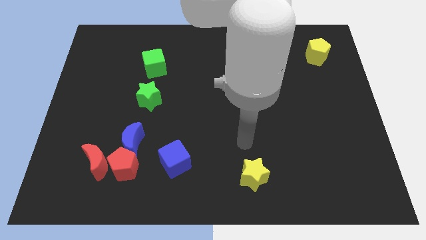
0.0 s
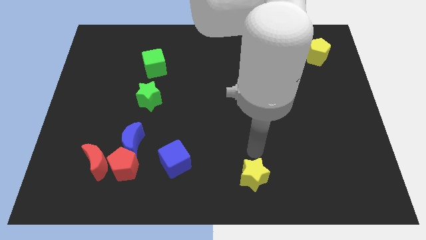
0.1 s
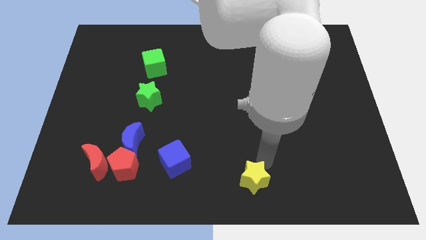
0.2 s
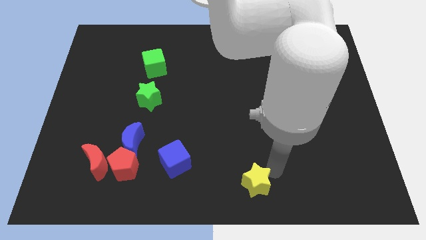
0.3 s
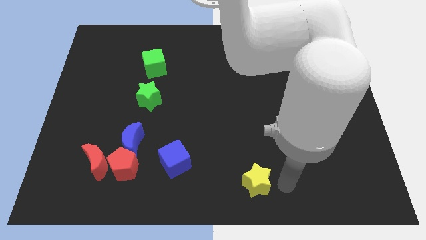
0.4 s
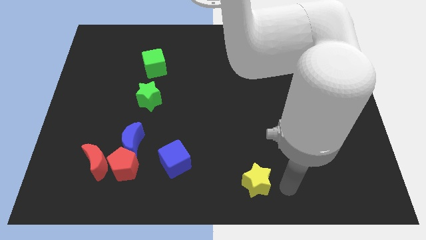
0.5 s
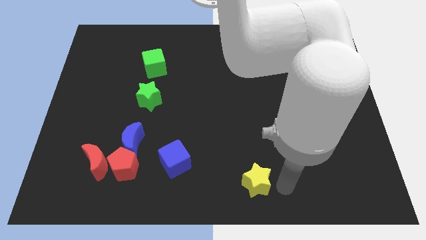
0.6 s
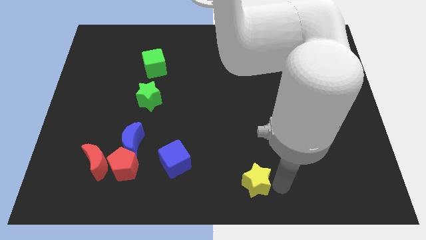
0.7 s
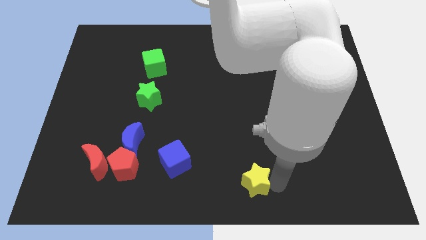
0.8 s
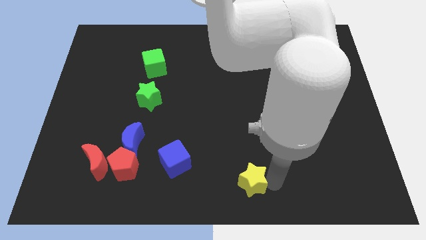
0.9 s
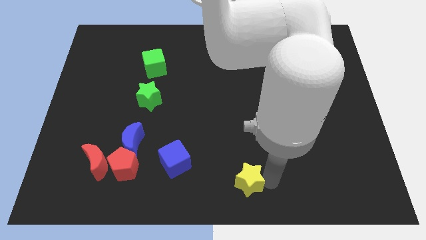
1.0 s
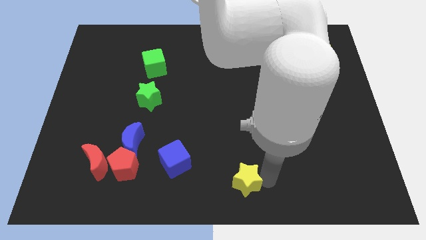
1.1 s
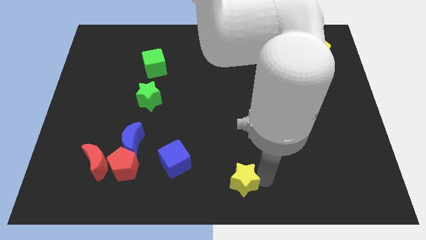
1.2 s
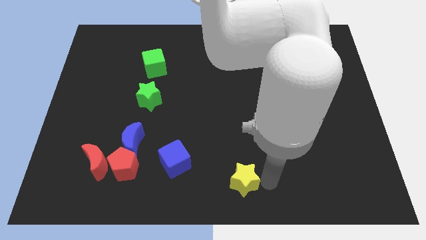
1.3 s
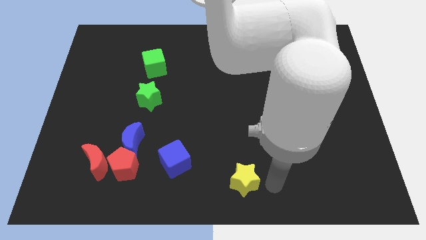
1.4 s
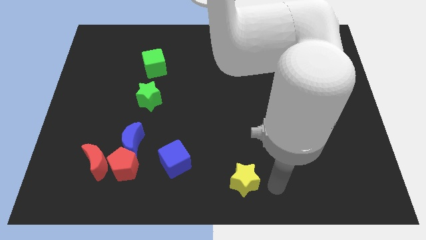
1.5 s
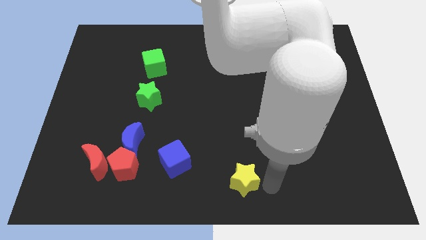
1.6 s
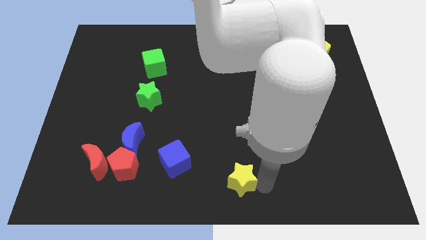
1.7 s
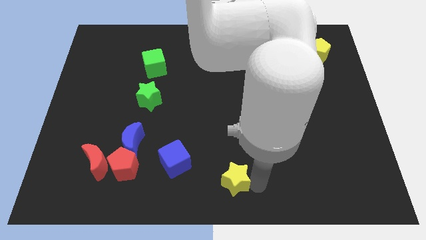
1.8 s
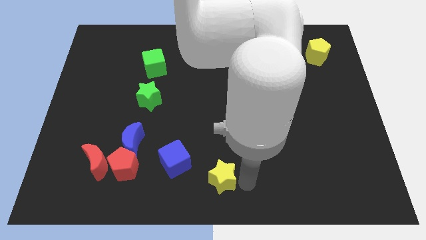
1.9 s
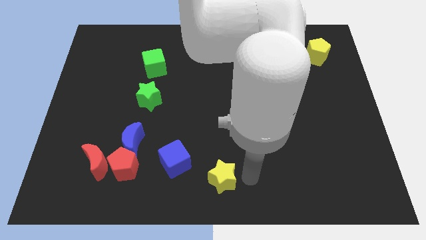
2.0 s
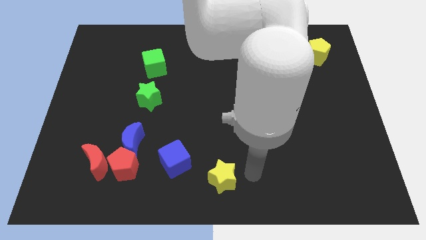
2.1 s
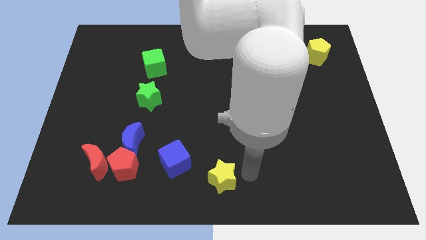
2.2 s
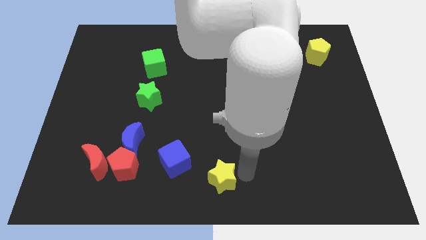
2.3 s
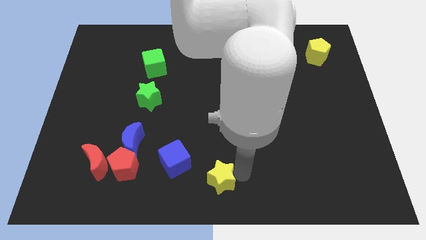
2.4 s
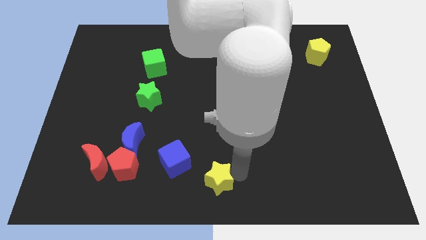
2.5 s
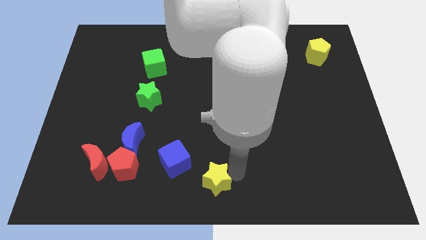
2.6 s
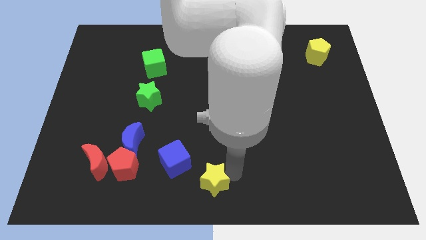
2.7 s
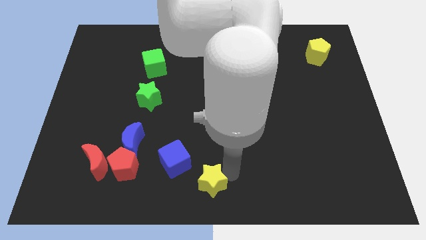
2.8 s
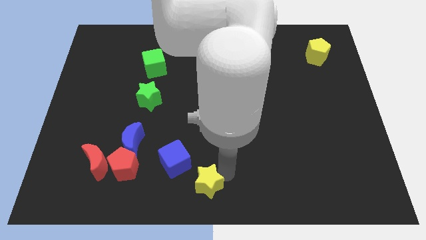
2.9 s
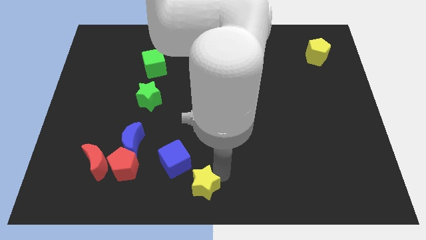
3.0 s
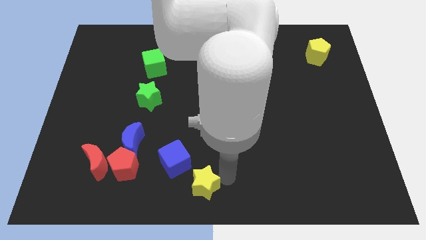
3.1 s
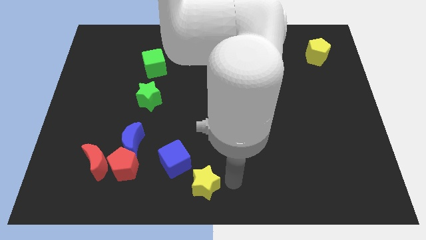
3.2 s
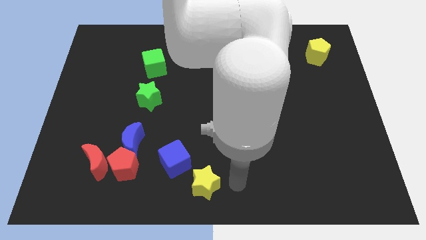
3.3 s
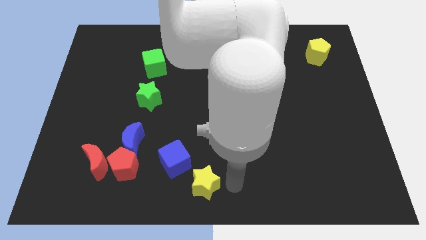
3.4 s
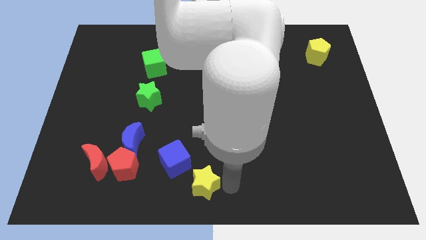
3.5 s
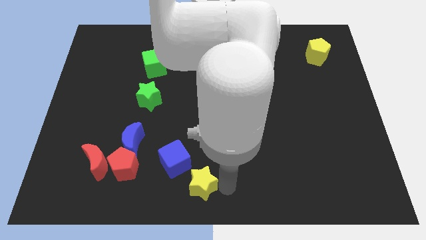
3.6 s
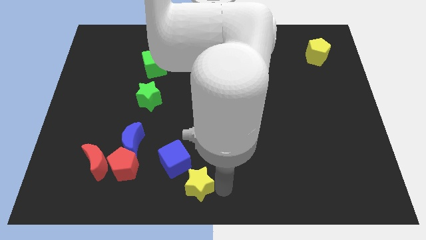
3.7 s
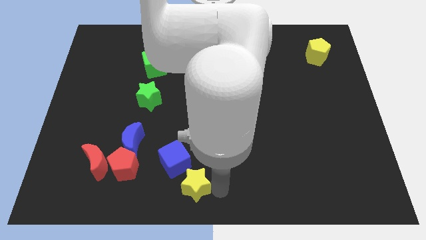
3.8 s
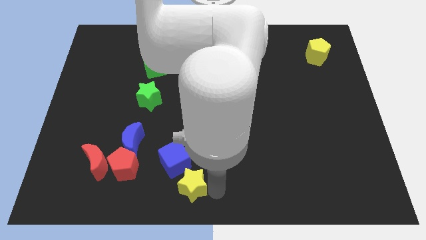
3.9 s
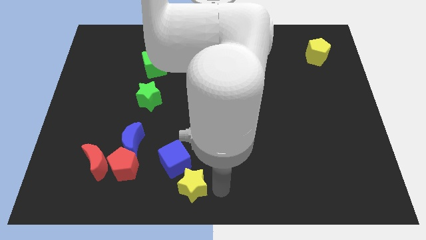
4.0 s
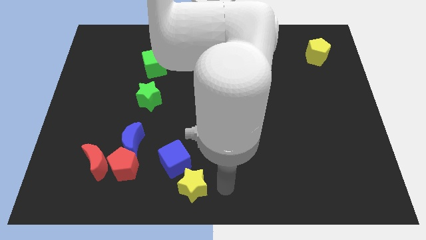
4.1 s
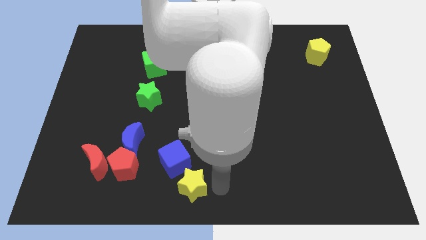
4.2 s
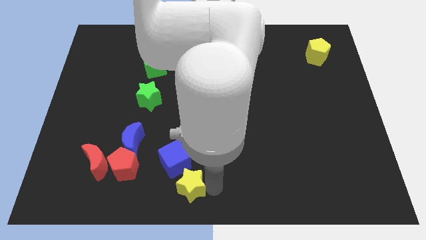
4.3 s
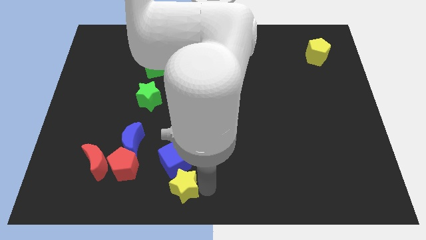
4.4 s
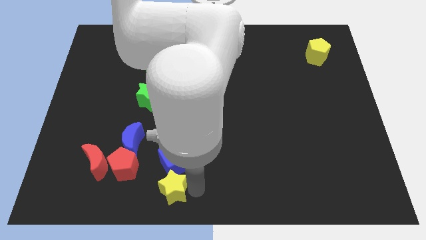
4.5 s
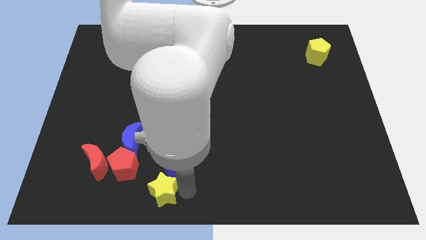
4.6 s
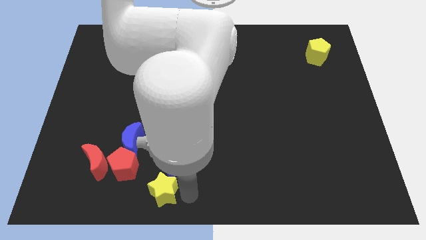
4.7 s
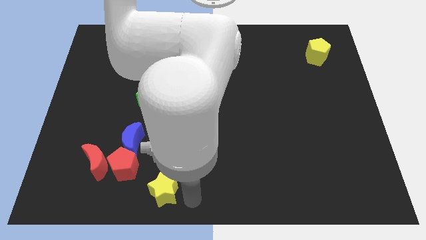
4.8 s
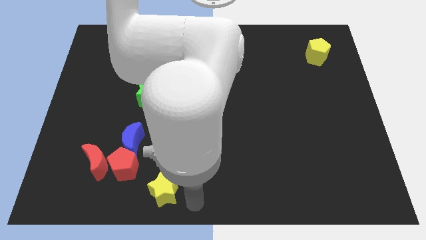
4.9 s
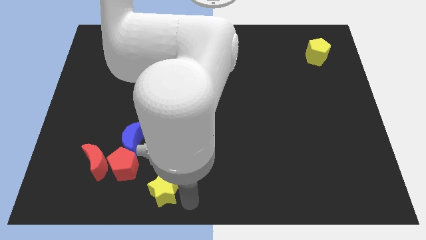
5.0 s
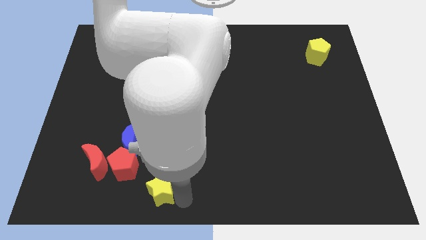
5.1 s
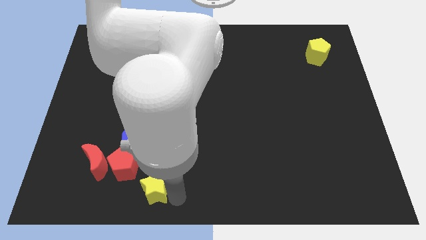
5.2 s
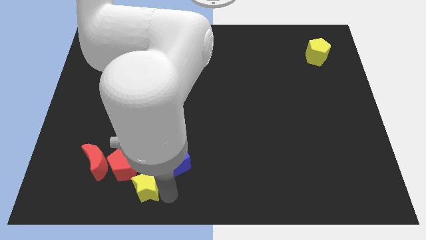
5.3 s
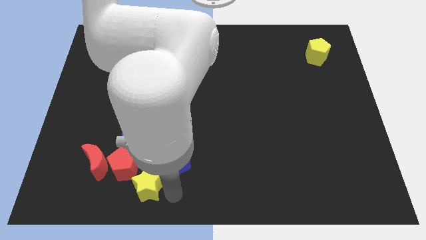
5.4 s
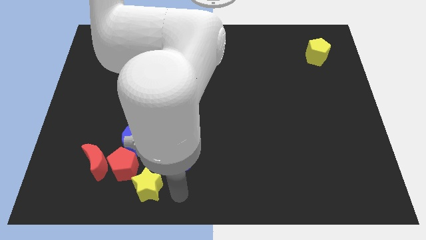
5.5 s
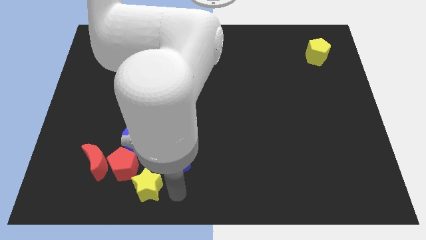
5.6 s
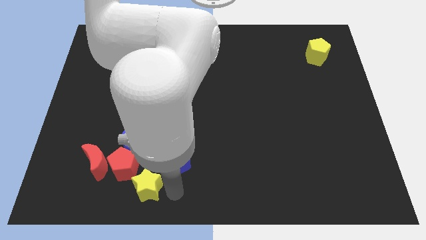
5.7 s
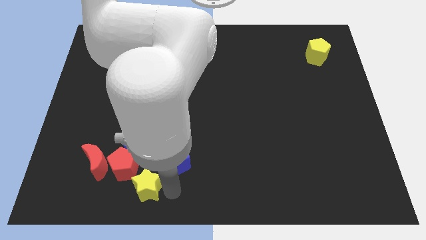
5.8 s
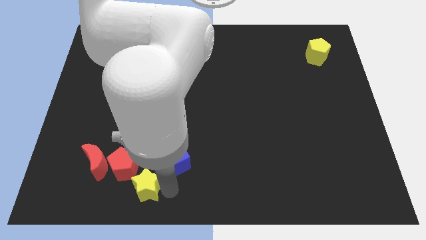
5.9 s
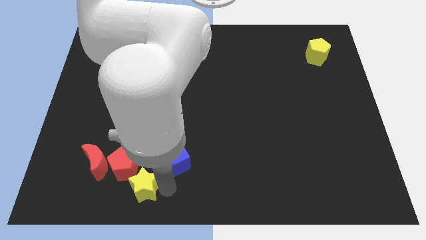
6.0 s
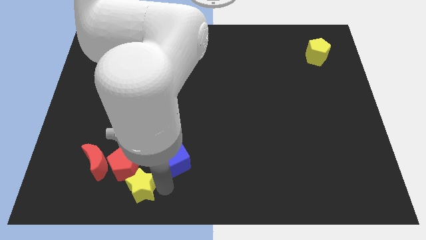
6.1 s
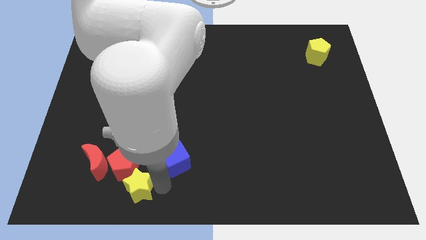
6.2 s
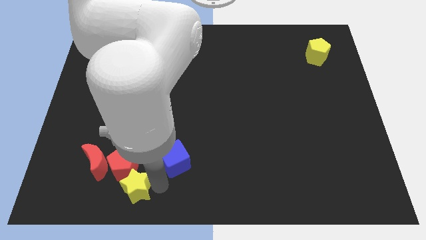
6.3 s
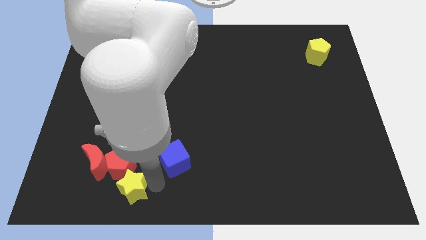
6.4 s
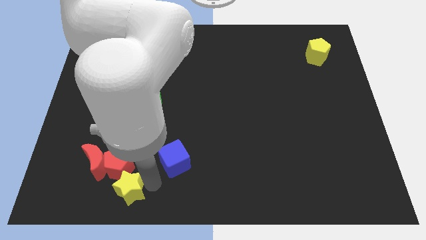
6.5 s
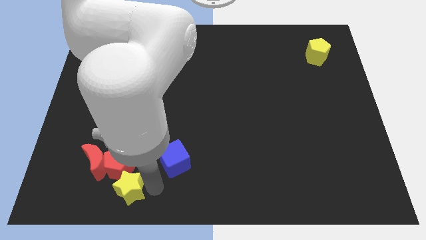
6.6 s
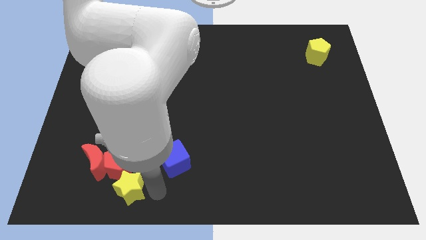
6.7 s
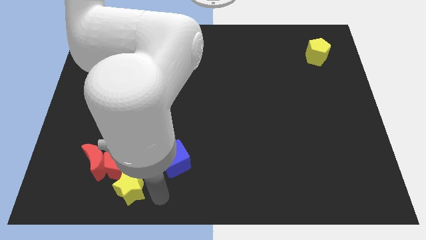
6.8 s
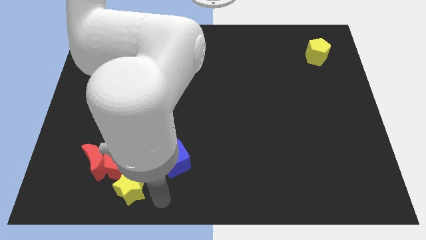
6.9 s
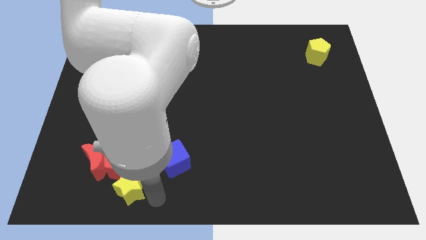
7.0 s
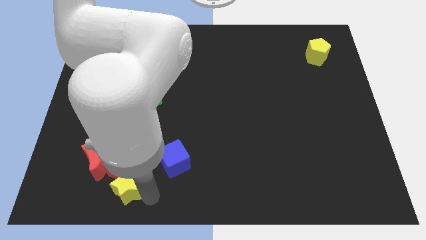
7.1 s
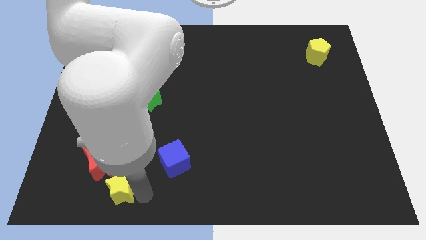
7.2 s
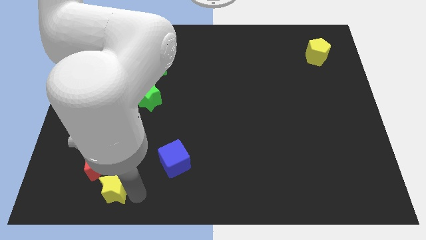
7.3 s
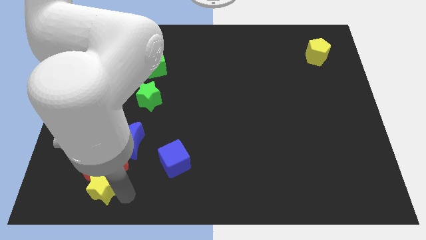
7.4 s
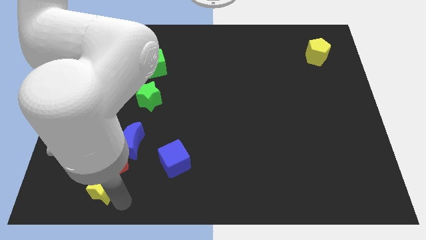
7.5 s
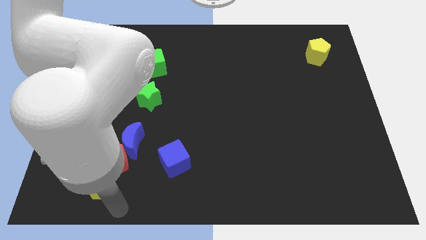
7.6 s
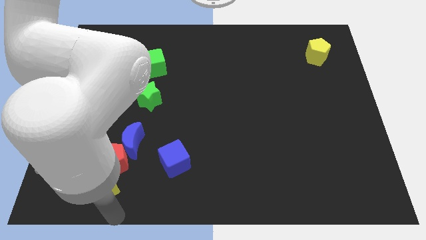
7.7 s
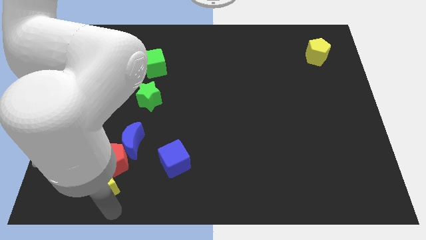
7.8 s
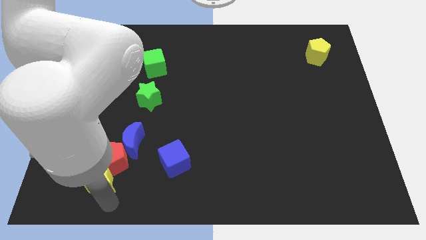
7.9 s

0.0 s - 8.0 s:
slide the yellow star to the red moon
